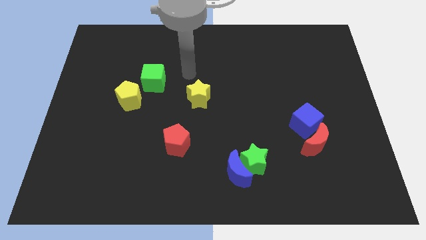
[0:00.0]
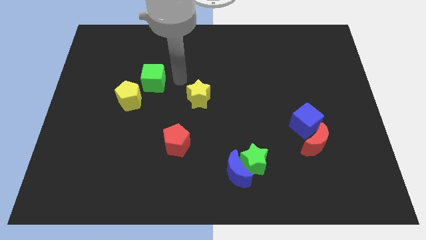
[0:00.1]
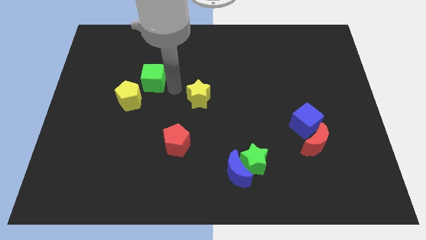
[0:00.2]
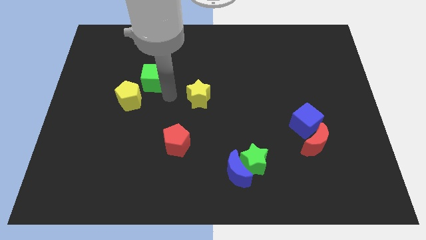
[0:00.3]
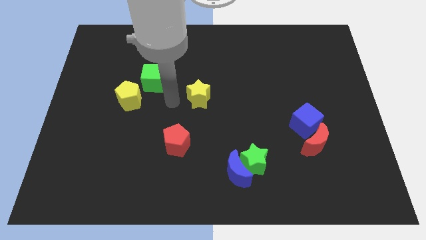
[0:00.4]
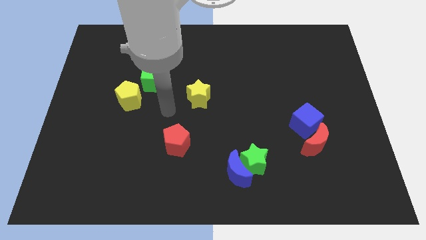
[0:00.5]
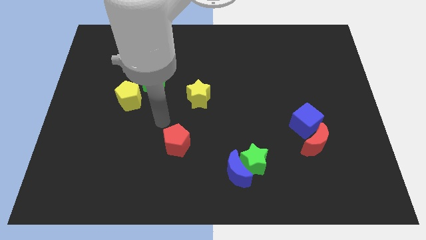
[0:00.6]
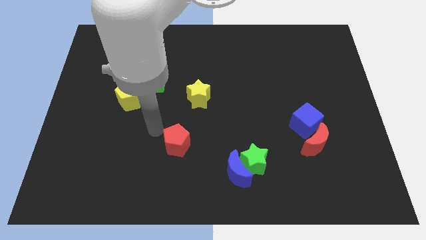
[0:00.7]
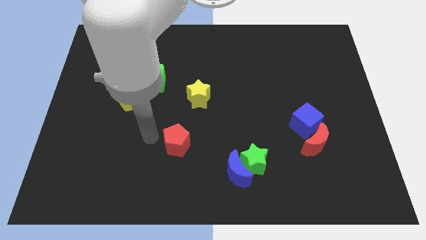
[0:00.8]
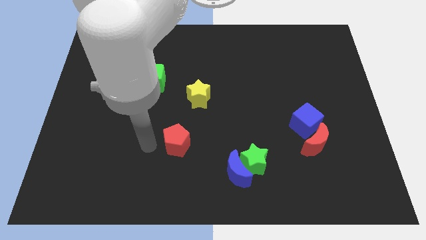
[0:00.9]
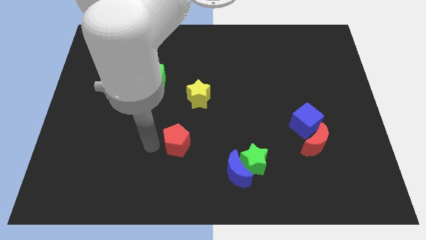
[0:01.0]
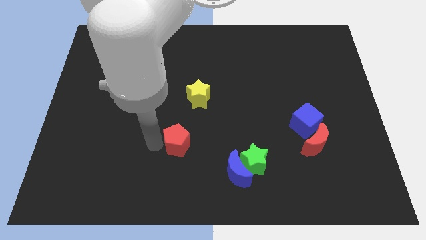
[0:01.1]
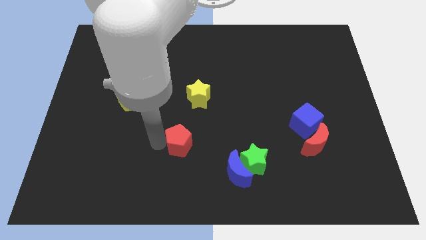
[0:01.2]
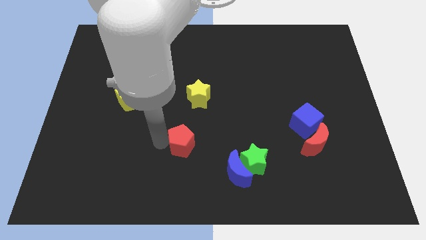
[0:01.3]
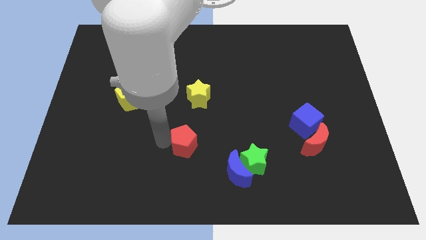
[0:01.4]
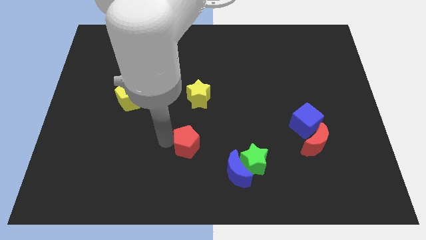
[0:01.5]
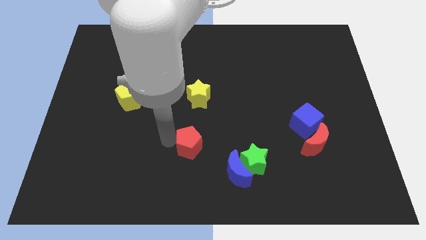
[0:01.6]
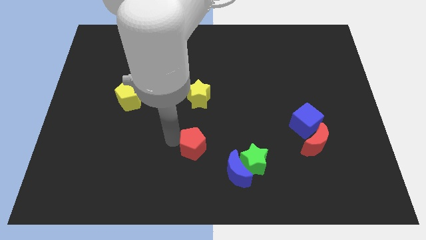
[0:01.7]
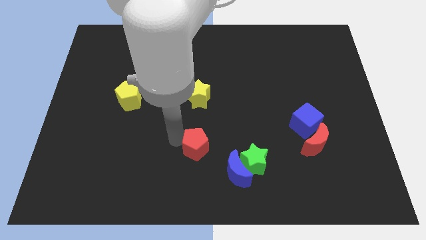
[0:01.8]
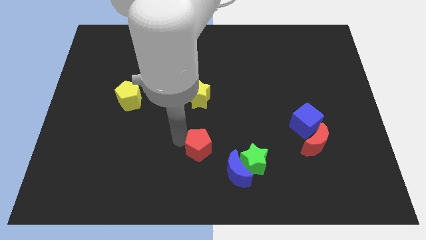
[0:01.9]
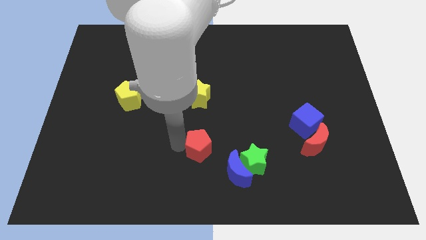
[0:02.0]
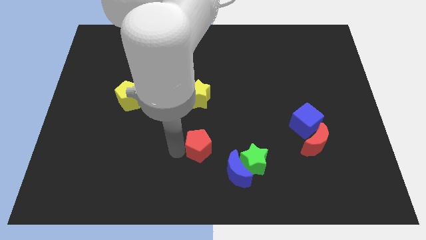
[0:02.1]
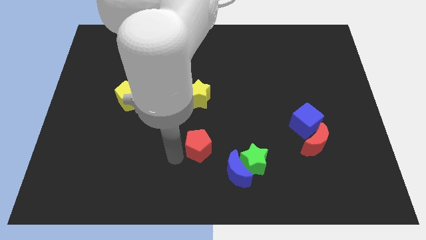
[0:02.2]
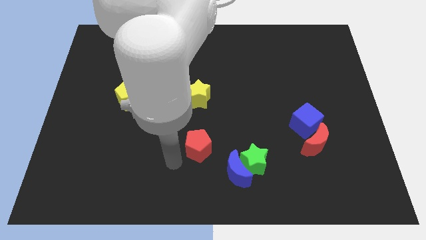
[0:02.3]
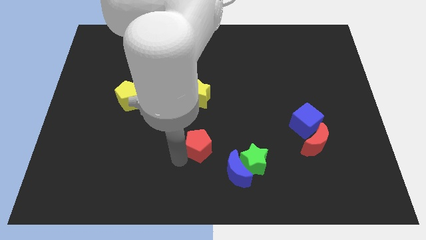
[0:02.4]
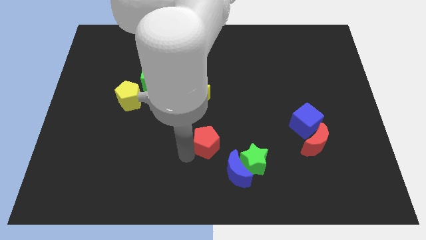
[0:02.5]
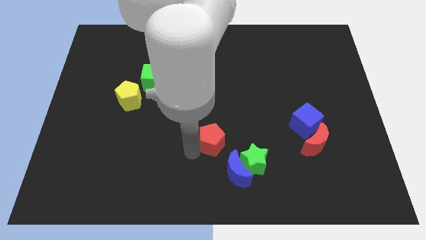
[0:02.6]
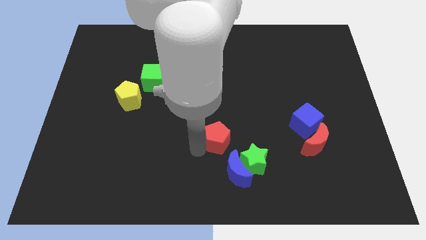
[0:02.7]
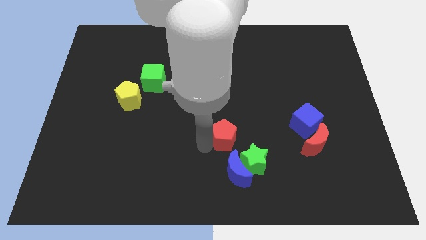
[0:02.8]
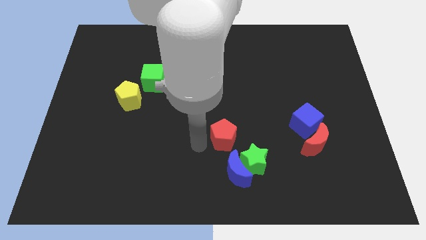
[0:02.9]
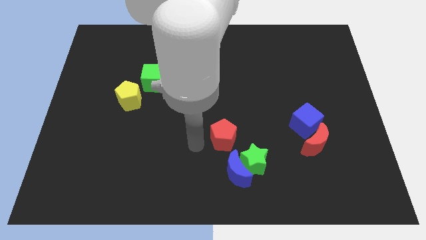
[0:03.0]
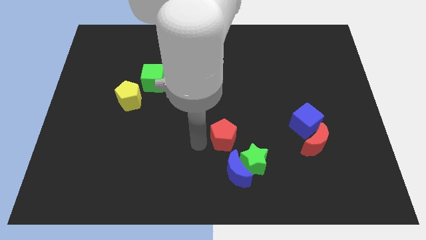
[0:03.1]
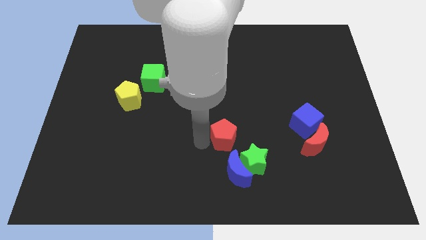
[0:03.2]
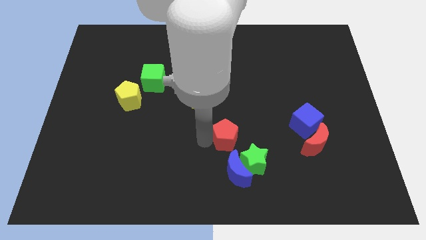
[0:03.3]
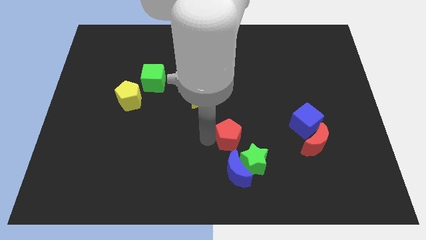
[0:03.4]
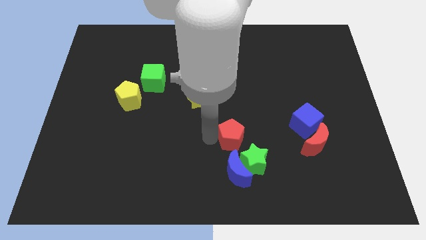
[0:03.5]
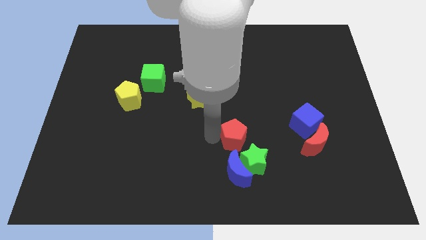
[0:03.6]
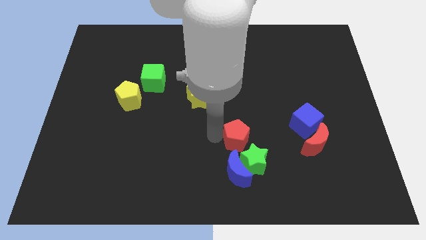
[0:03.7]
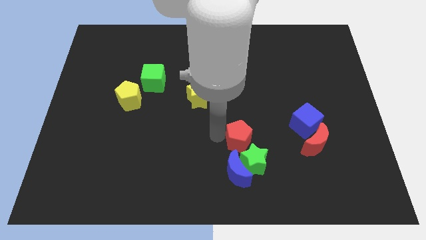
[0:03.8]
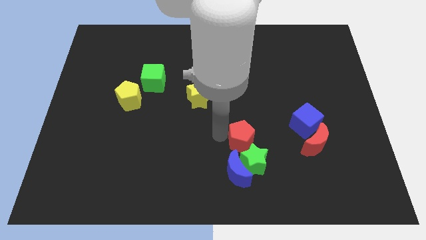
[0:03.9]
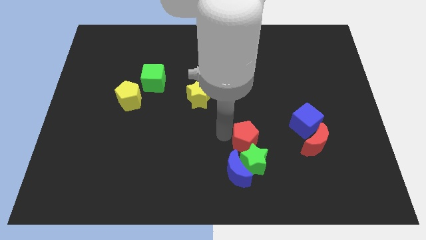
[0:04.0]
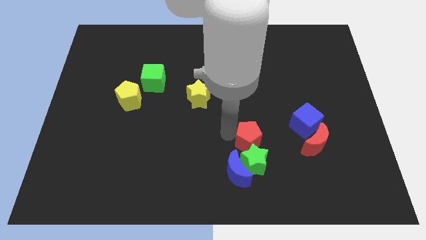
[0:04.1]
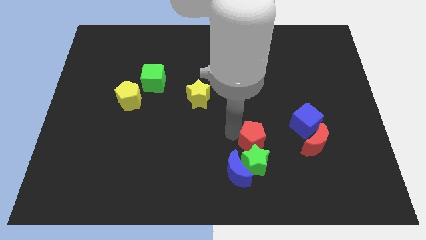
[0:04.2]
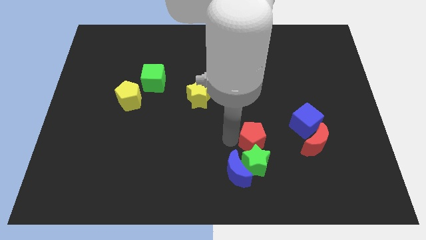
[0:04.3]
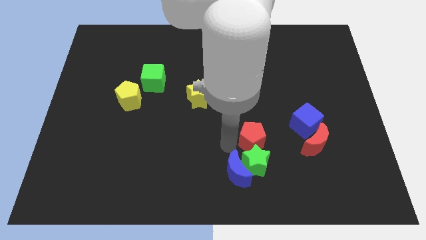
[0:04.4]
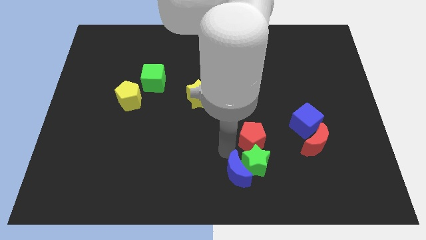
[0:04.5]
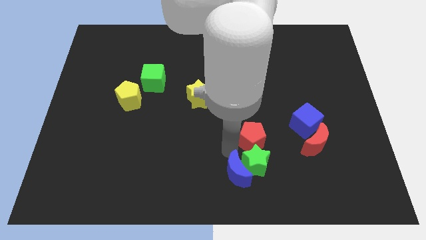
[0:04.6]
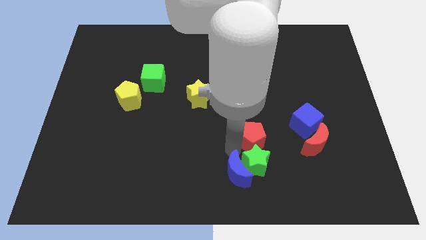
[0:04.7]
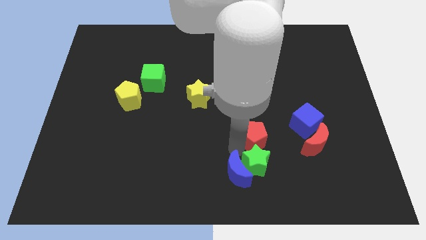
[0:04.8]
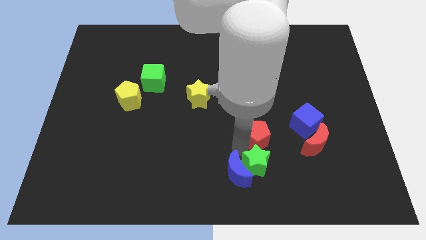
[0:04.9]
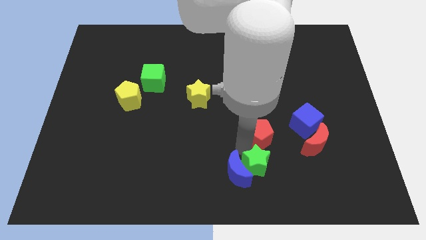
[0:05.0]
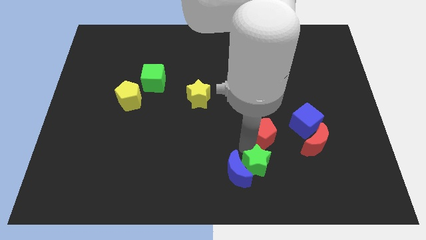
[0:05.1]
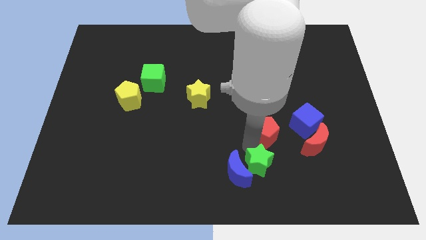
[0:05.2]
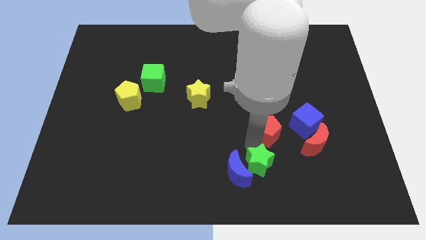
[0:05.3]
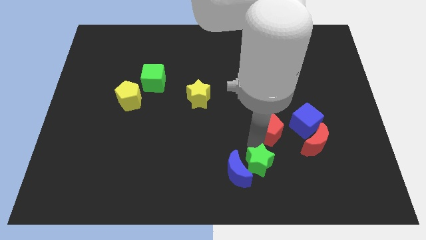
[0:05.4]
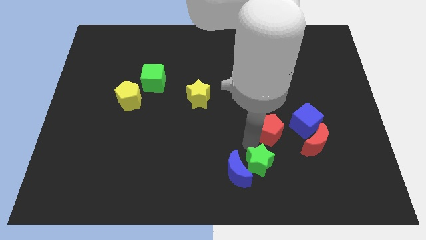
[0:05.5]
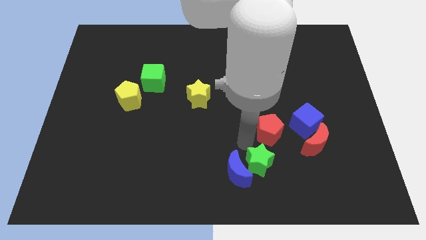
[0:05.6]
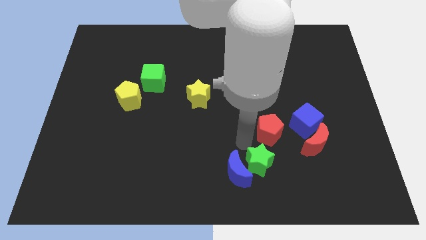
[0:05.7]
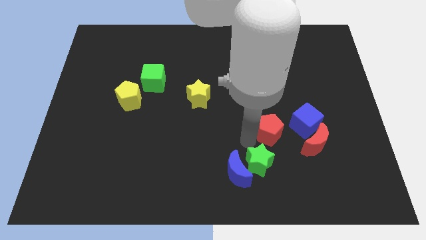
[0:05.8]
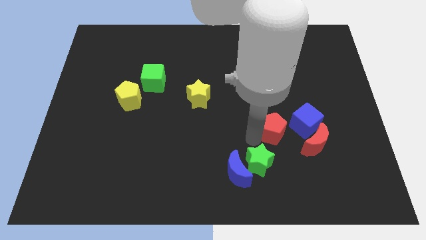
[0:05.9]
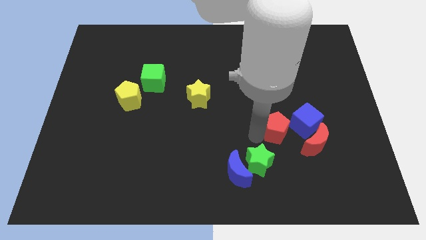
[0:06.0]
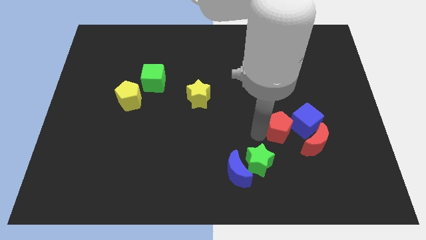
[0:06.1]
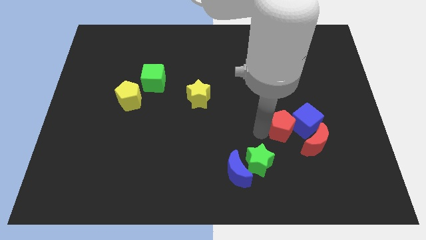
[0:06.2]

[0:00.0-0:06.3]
slide the red pentagon towards the blue cube
